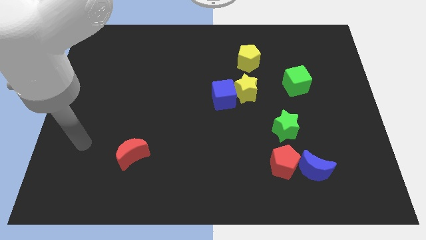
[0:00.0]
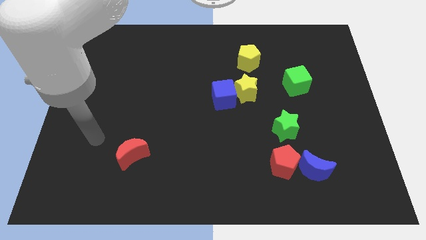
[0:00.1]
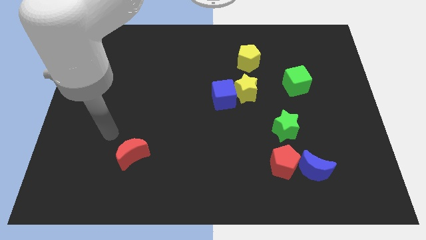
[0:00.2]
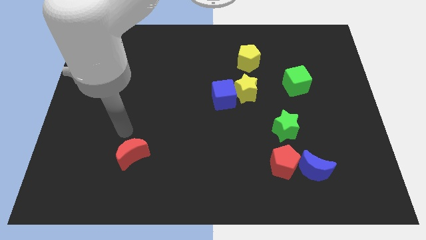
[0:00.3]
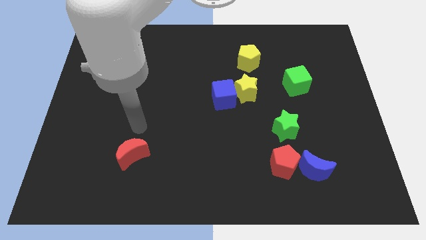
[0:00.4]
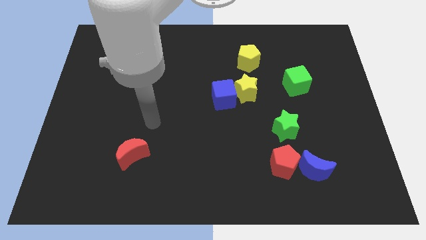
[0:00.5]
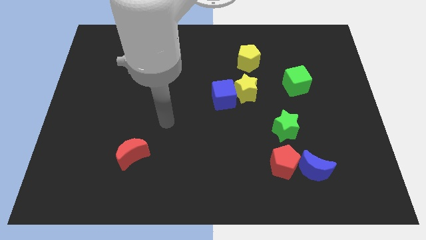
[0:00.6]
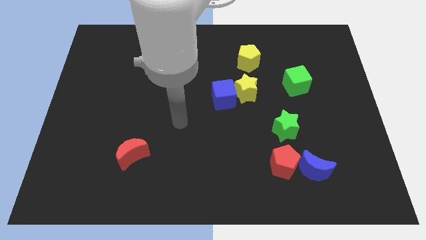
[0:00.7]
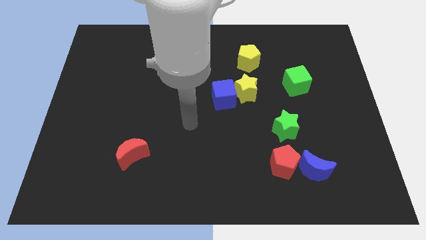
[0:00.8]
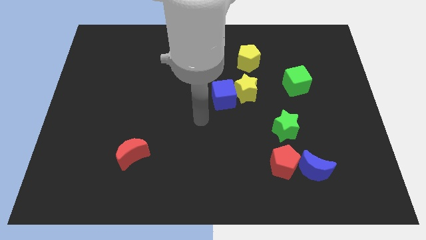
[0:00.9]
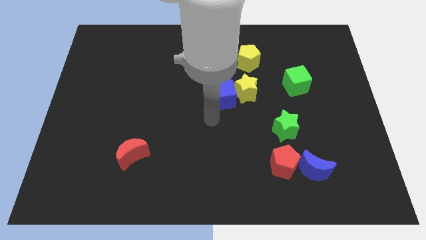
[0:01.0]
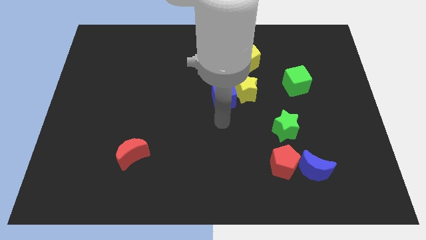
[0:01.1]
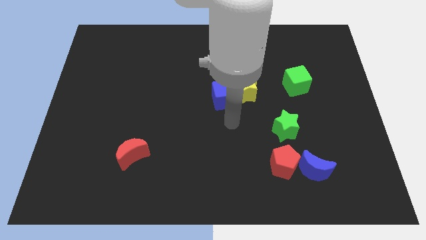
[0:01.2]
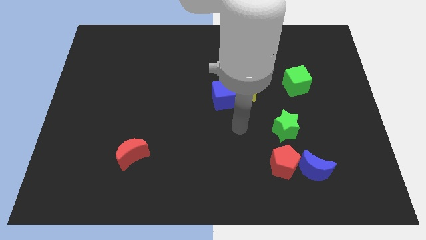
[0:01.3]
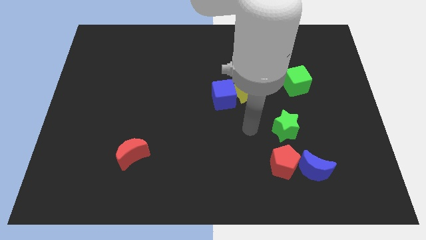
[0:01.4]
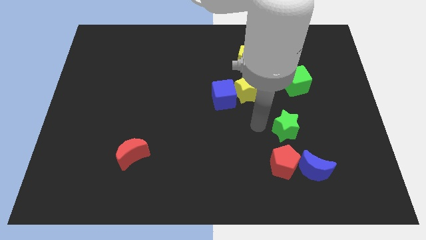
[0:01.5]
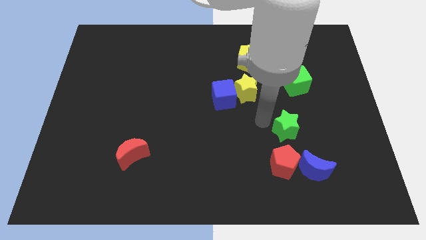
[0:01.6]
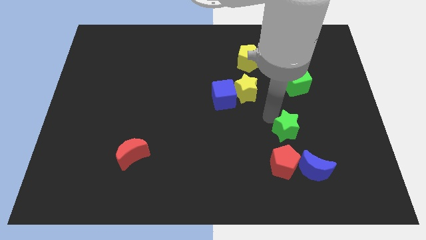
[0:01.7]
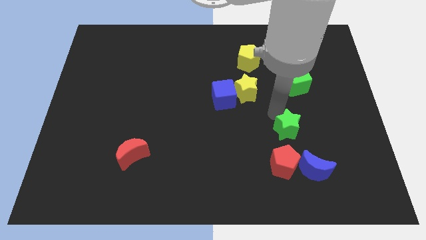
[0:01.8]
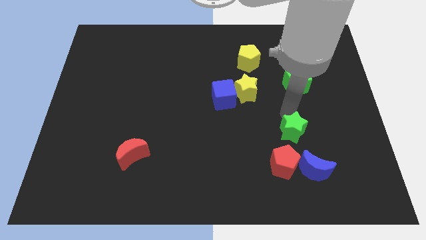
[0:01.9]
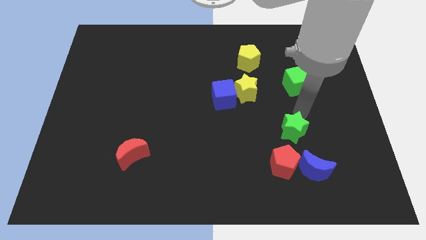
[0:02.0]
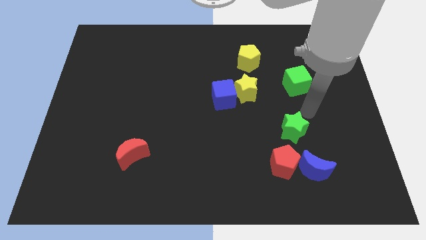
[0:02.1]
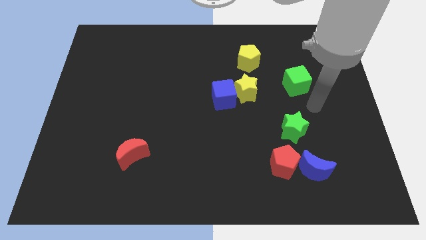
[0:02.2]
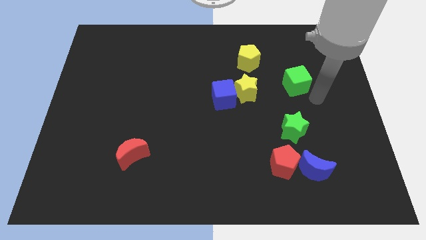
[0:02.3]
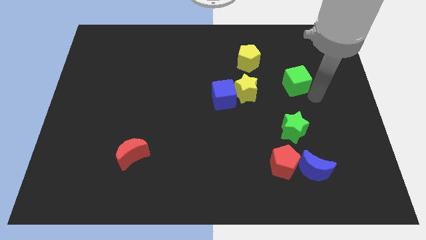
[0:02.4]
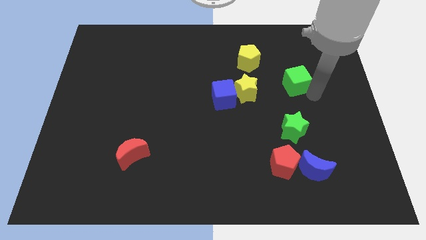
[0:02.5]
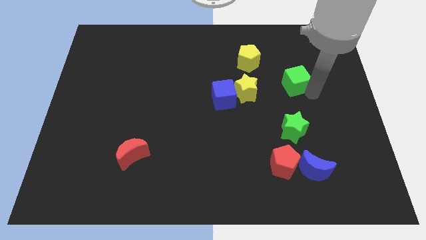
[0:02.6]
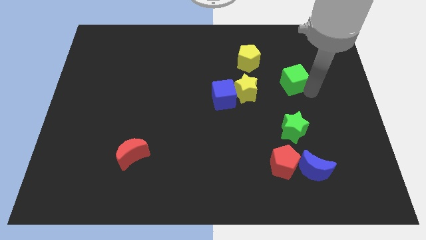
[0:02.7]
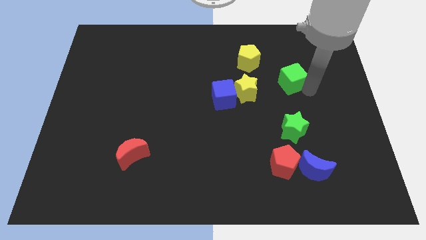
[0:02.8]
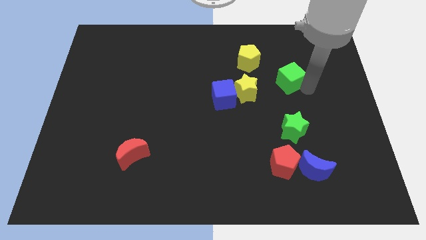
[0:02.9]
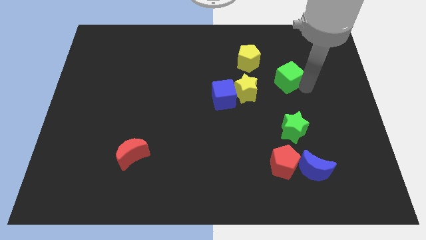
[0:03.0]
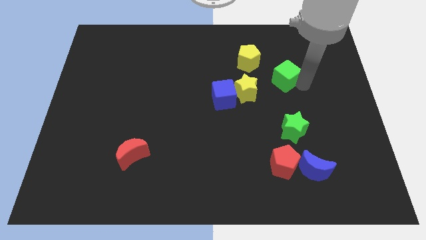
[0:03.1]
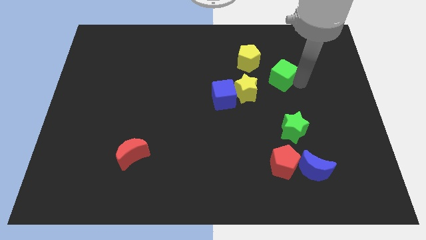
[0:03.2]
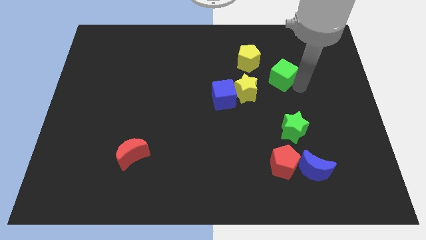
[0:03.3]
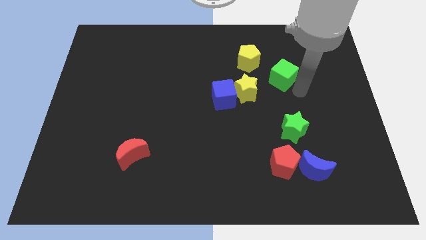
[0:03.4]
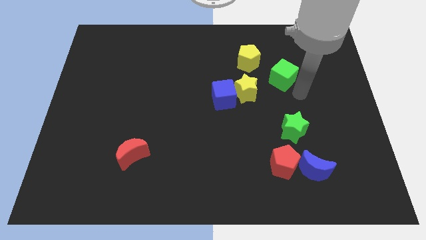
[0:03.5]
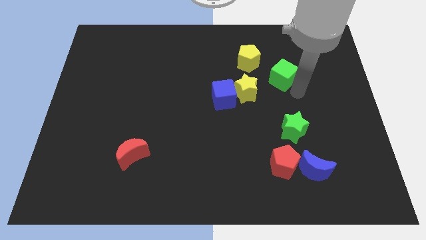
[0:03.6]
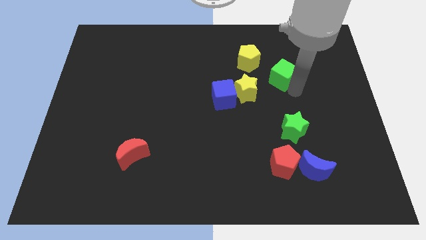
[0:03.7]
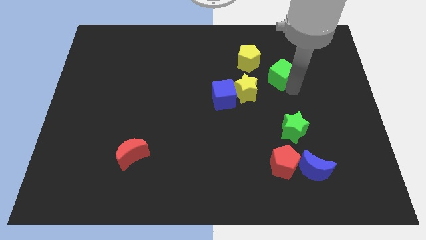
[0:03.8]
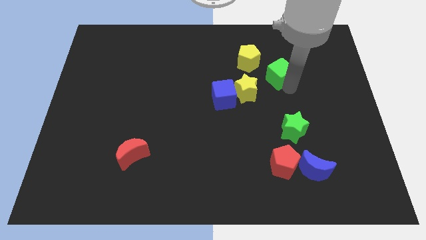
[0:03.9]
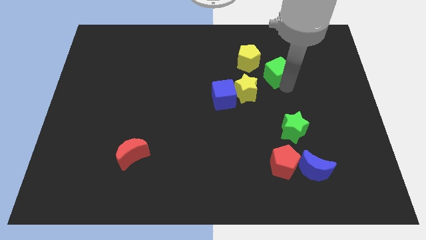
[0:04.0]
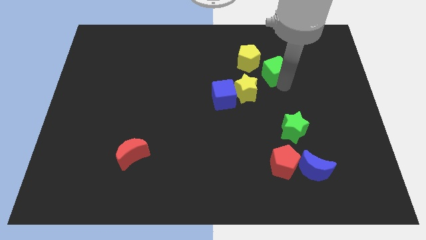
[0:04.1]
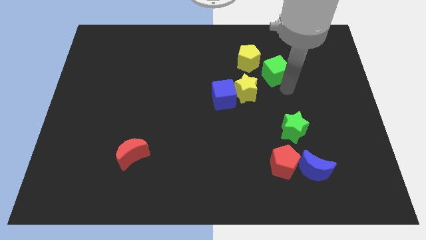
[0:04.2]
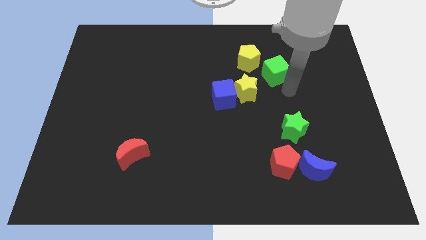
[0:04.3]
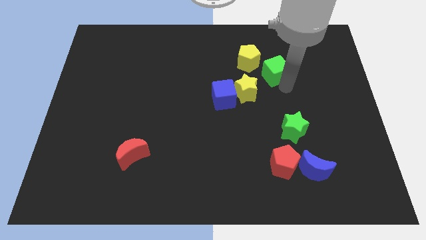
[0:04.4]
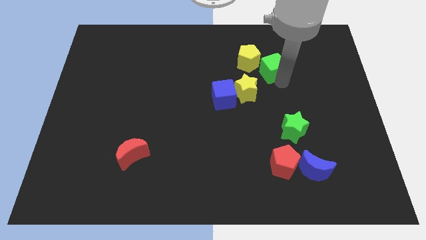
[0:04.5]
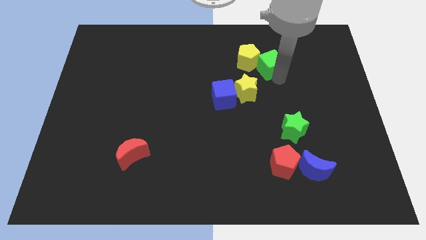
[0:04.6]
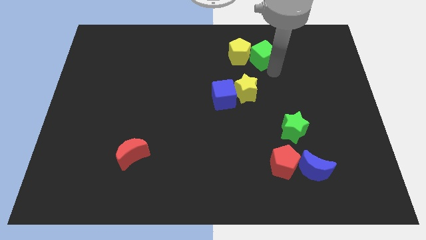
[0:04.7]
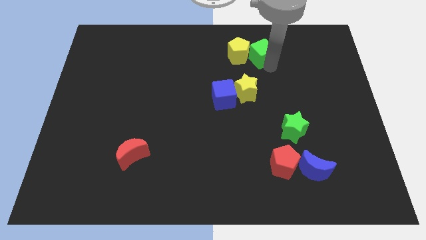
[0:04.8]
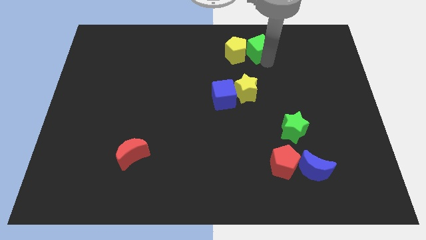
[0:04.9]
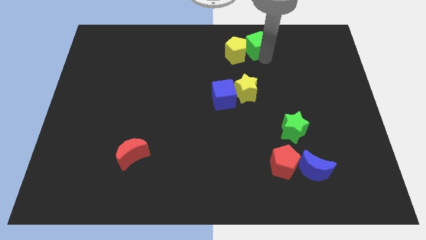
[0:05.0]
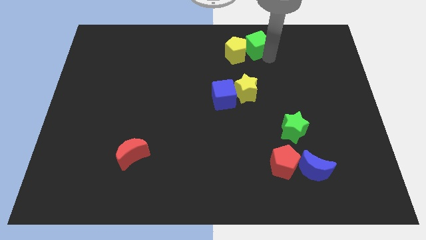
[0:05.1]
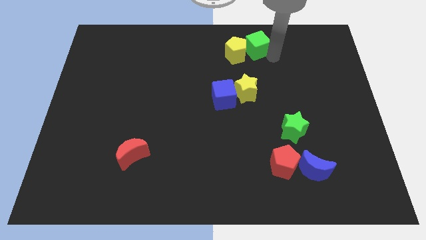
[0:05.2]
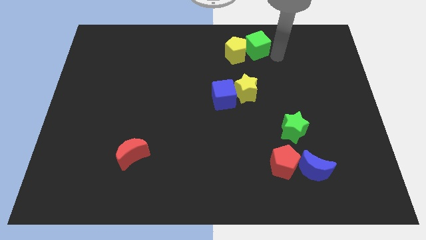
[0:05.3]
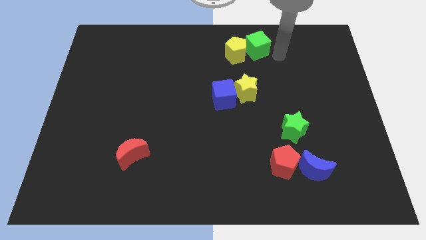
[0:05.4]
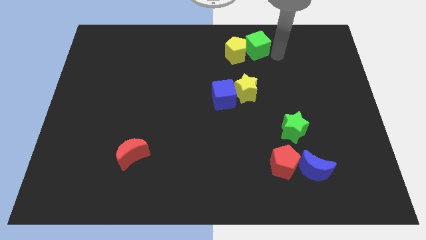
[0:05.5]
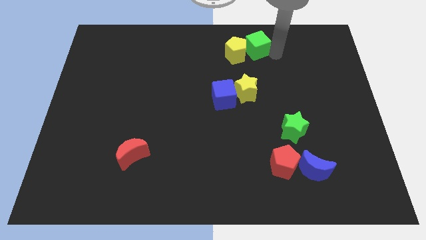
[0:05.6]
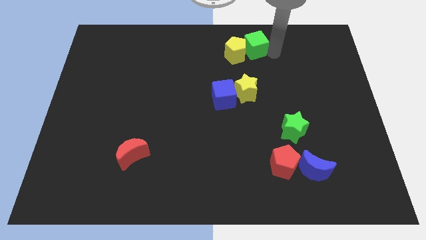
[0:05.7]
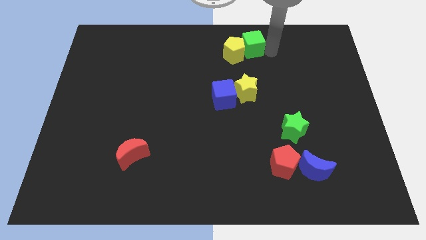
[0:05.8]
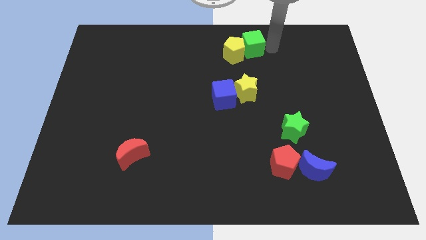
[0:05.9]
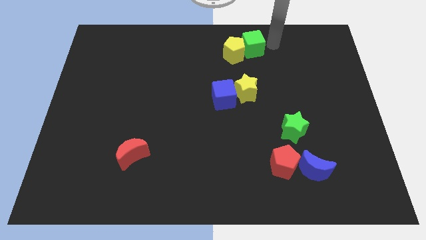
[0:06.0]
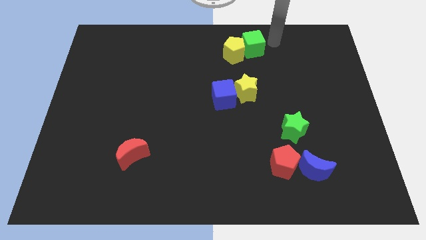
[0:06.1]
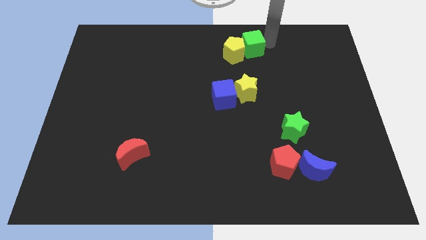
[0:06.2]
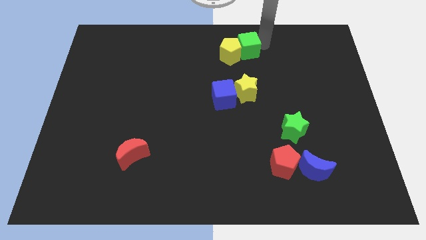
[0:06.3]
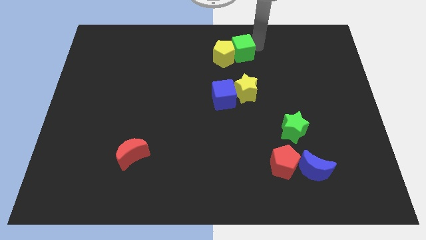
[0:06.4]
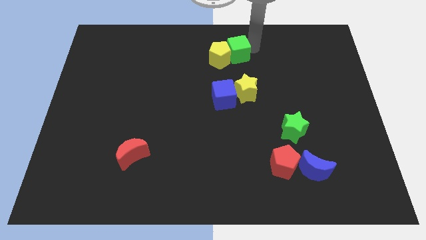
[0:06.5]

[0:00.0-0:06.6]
push the green cube to the left a little

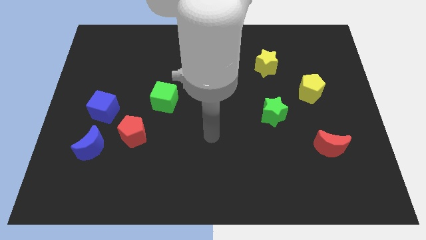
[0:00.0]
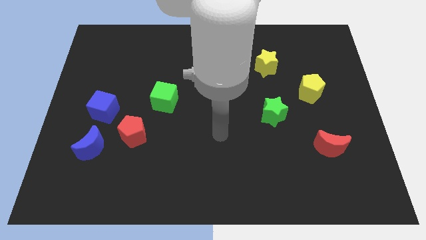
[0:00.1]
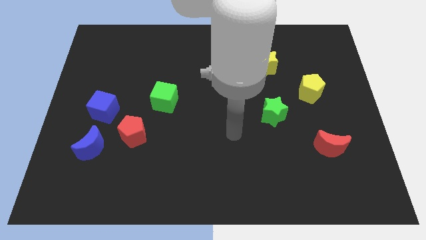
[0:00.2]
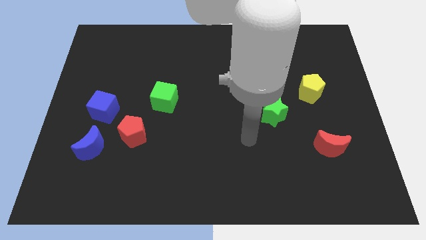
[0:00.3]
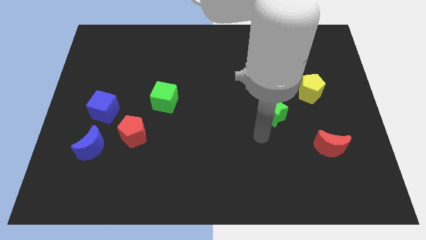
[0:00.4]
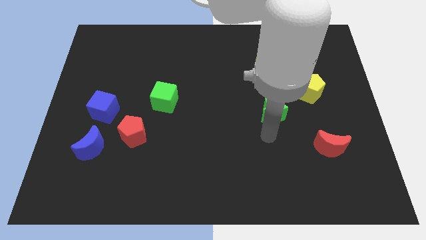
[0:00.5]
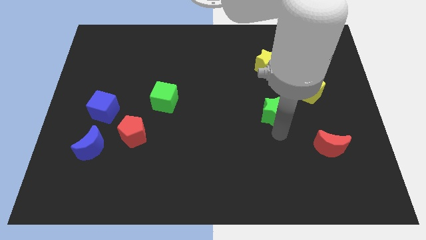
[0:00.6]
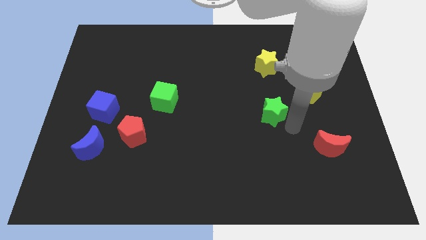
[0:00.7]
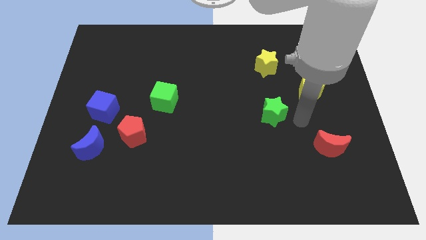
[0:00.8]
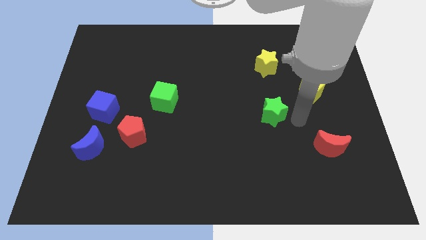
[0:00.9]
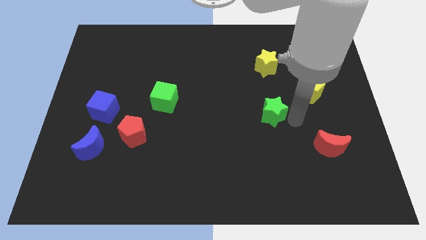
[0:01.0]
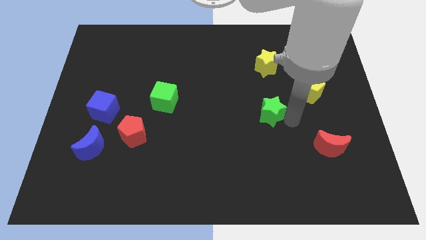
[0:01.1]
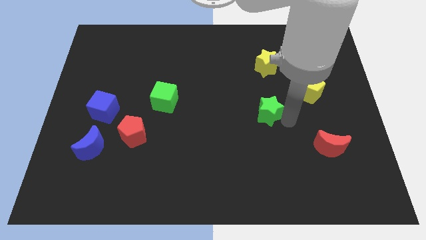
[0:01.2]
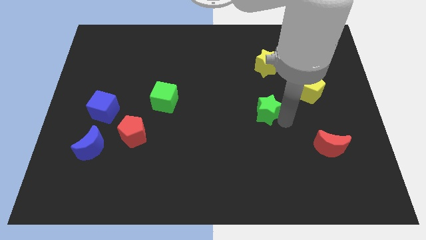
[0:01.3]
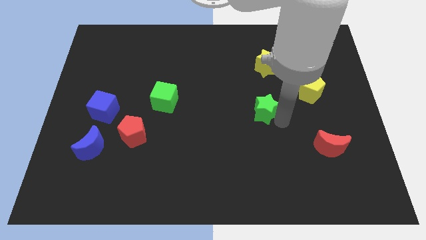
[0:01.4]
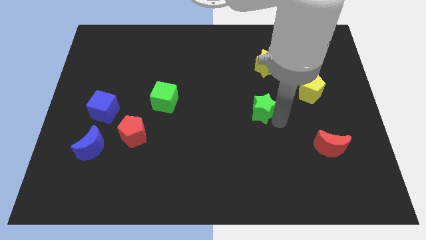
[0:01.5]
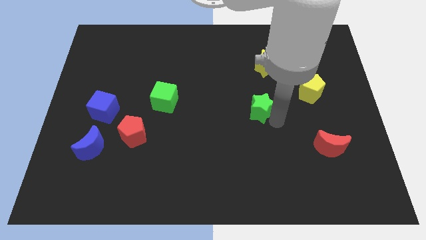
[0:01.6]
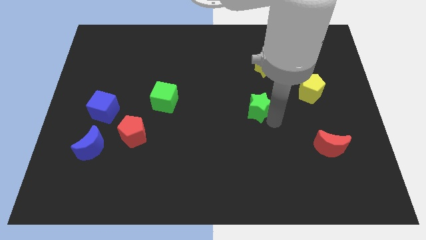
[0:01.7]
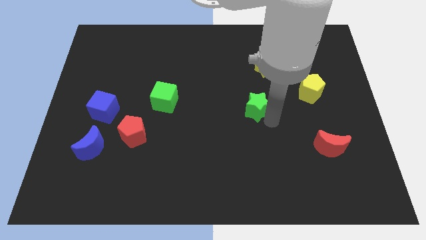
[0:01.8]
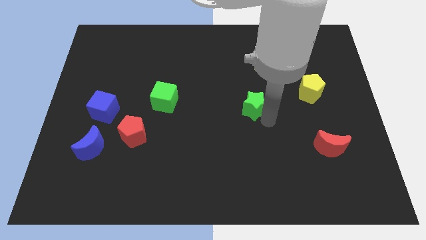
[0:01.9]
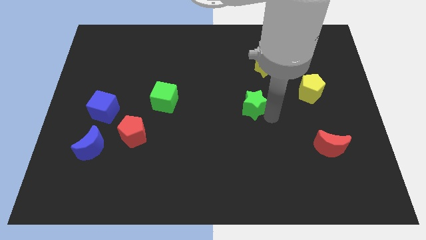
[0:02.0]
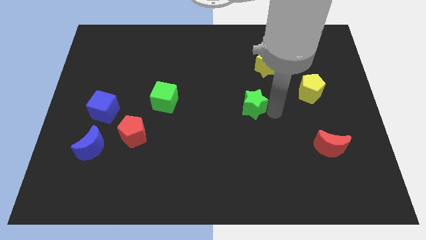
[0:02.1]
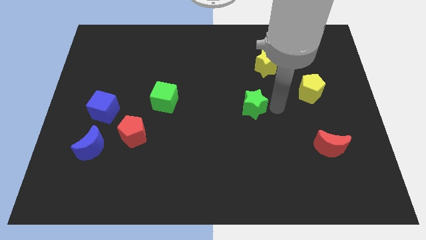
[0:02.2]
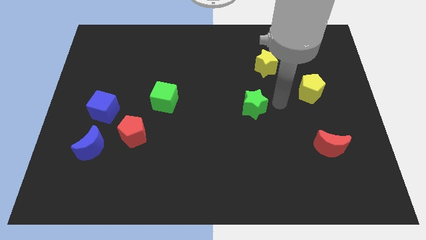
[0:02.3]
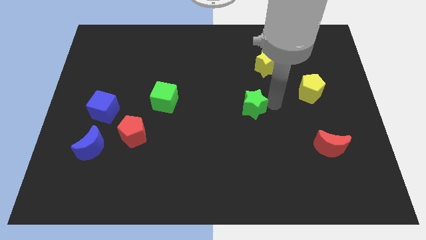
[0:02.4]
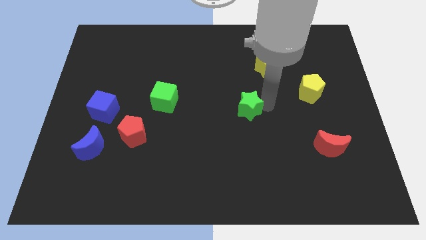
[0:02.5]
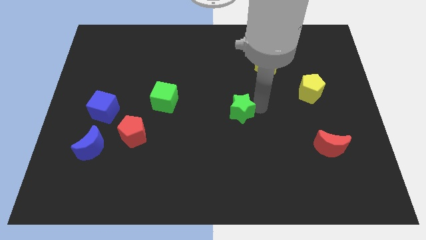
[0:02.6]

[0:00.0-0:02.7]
move the green star left a bit
